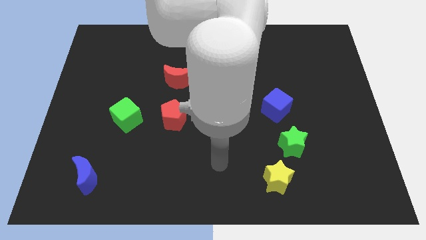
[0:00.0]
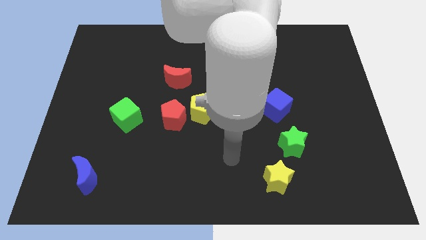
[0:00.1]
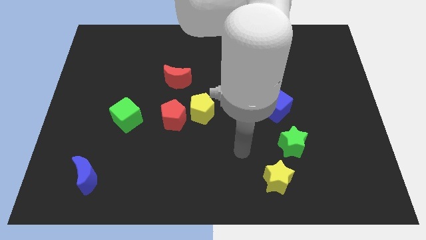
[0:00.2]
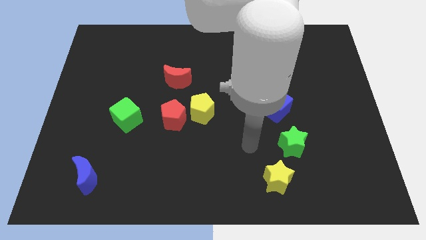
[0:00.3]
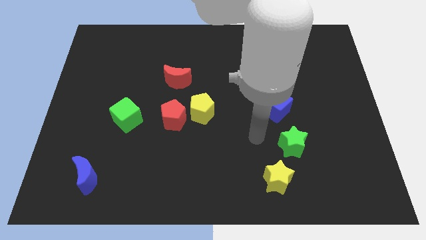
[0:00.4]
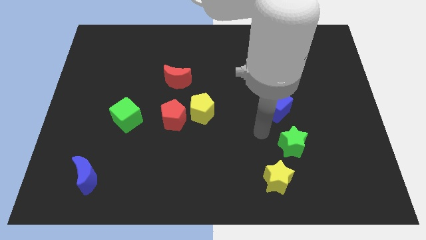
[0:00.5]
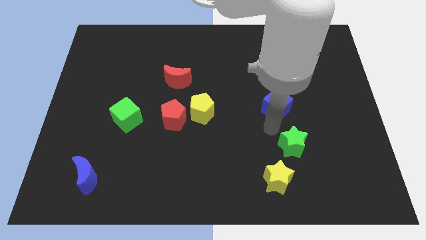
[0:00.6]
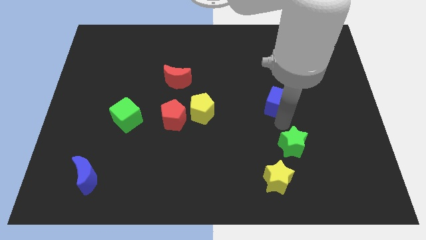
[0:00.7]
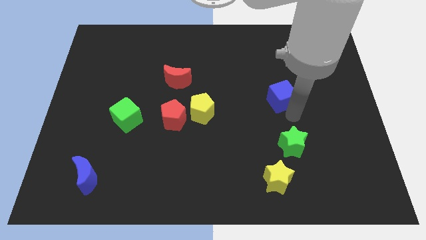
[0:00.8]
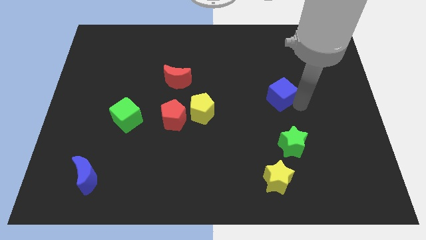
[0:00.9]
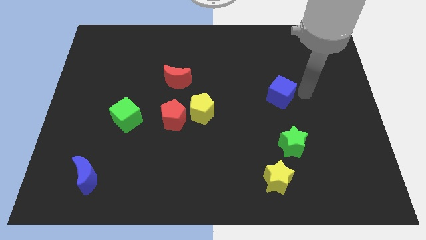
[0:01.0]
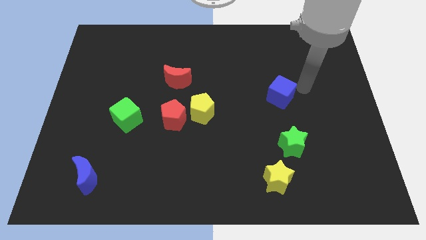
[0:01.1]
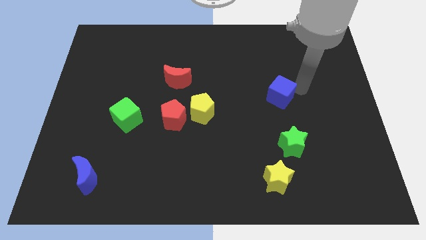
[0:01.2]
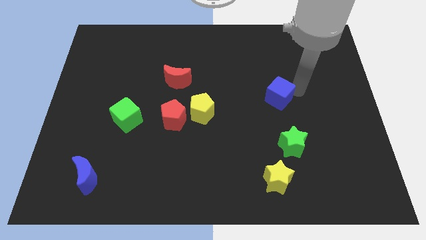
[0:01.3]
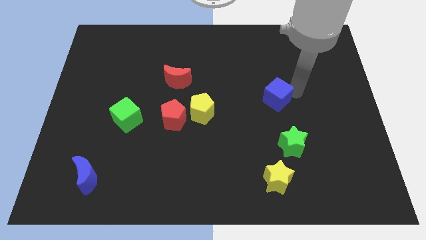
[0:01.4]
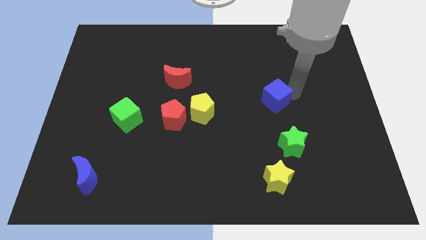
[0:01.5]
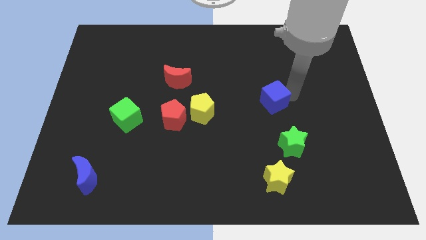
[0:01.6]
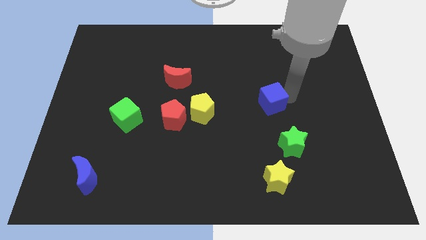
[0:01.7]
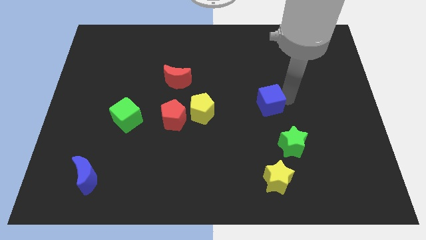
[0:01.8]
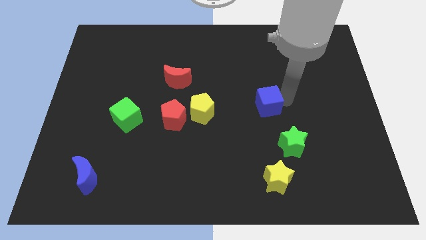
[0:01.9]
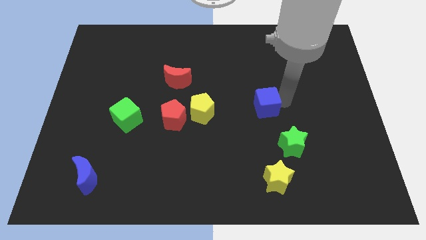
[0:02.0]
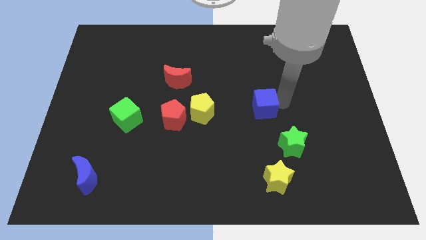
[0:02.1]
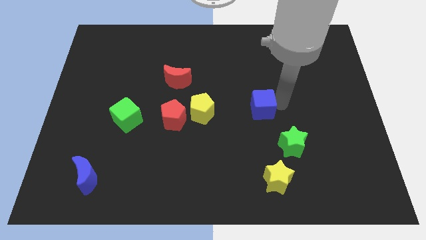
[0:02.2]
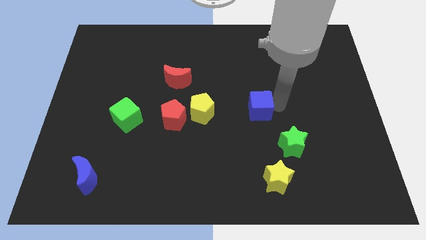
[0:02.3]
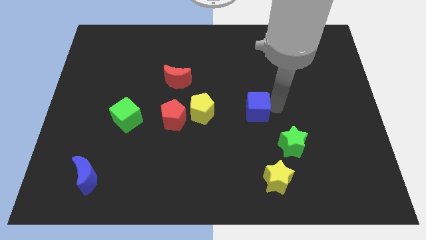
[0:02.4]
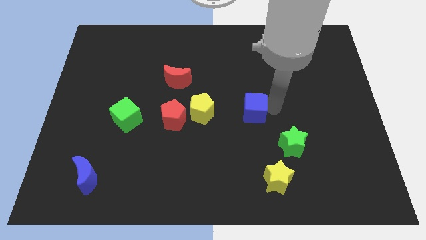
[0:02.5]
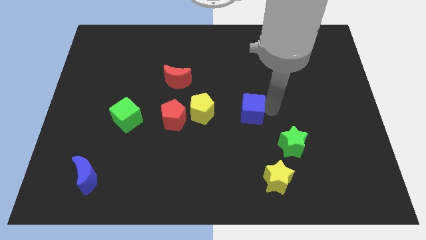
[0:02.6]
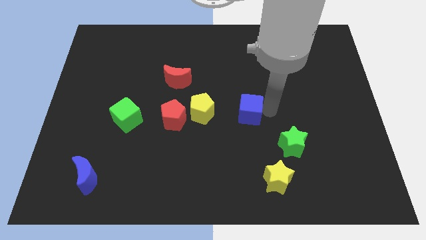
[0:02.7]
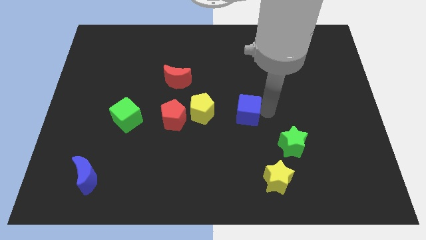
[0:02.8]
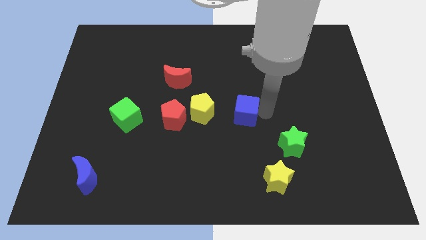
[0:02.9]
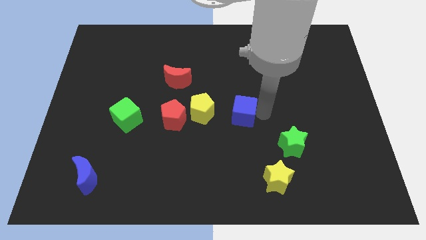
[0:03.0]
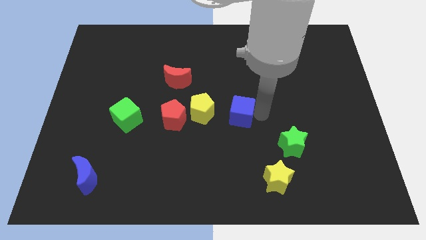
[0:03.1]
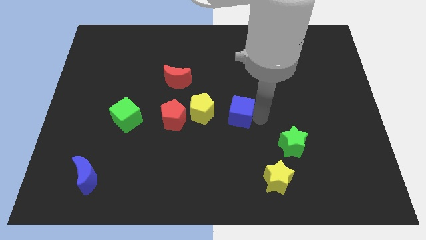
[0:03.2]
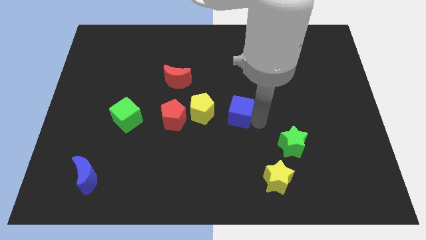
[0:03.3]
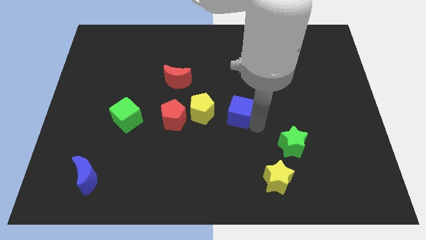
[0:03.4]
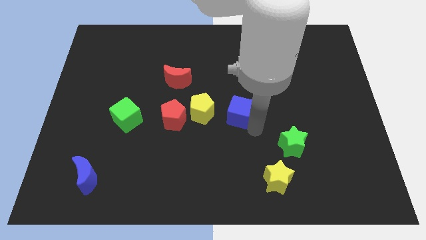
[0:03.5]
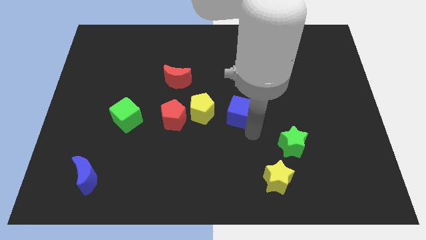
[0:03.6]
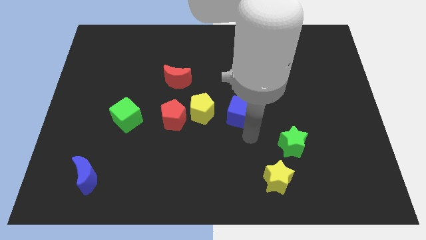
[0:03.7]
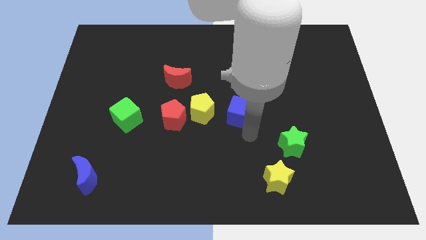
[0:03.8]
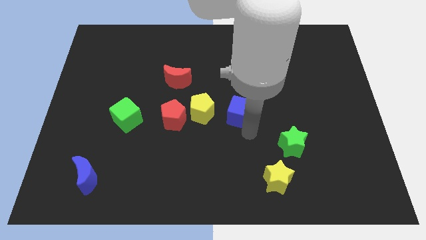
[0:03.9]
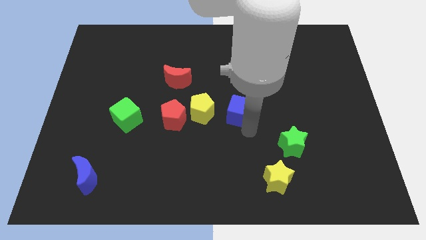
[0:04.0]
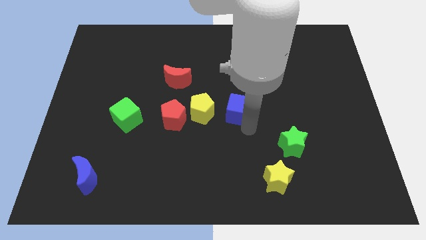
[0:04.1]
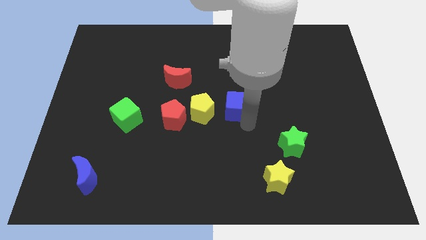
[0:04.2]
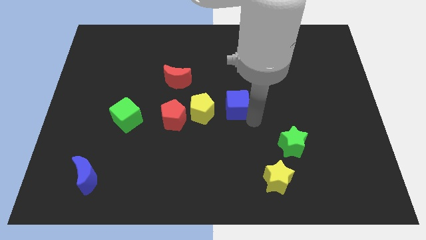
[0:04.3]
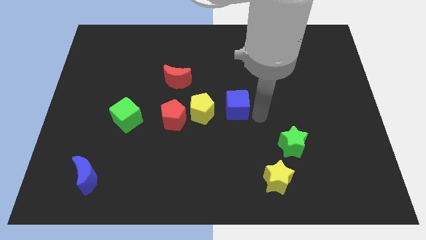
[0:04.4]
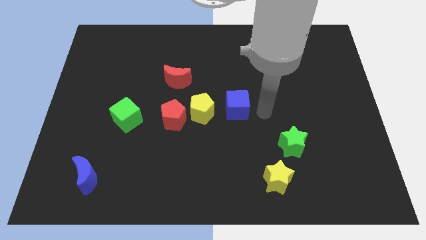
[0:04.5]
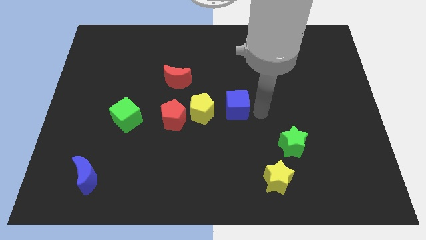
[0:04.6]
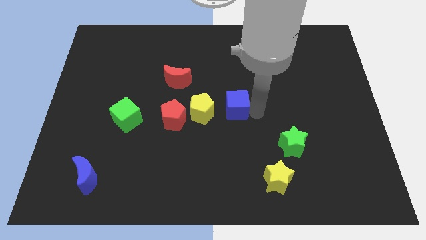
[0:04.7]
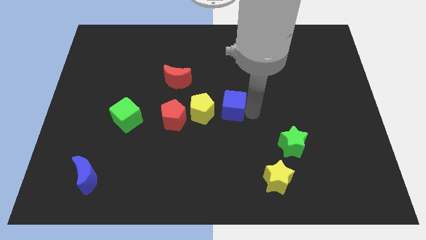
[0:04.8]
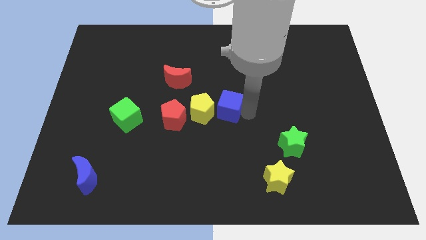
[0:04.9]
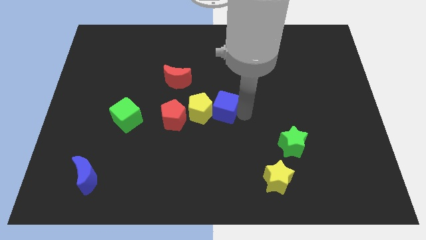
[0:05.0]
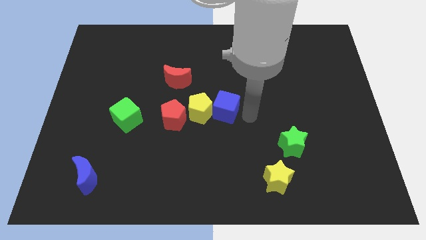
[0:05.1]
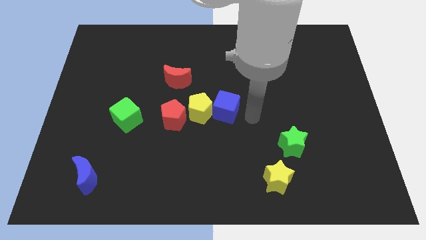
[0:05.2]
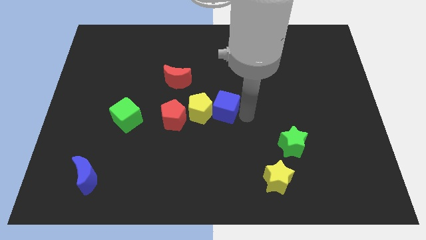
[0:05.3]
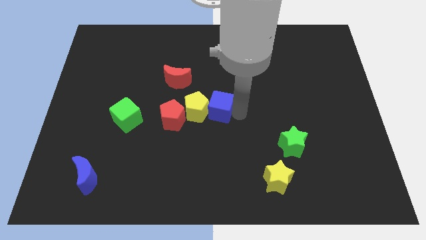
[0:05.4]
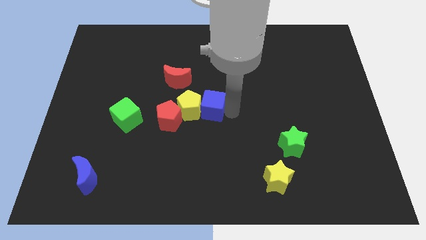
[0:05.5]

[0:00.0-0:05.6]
slide the blue cube to the top right side of the red pentagon

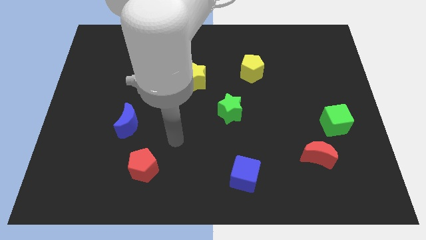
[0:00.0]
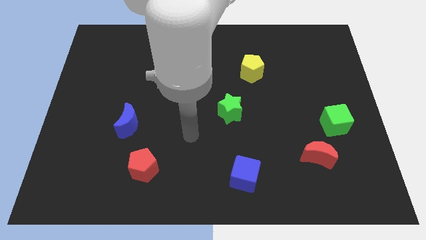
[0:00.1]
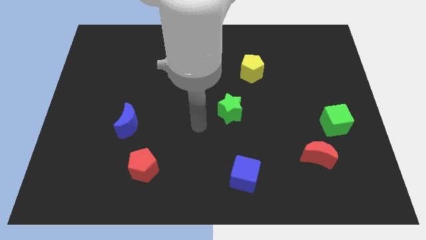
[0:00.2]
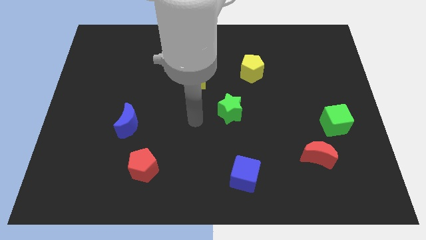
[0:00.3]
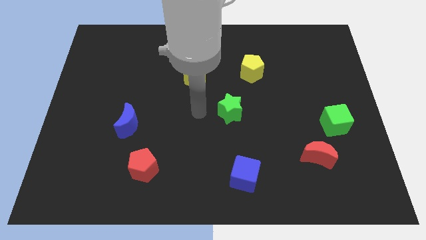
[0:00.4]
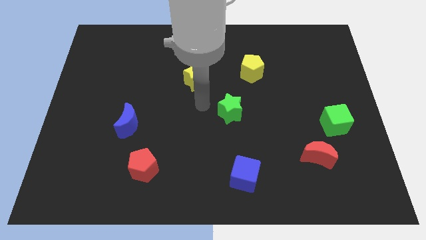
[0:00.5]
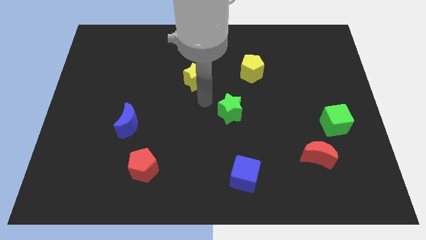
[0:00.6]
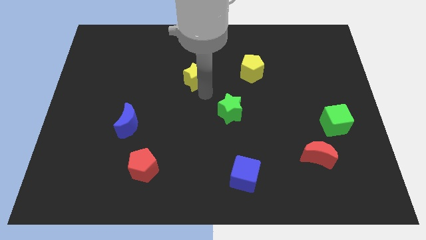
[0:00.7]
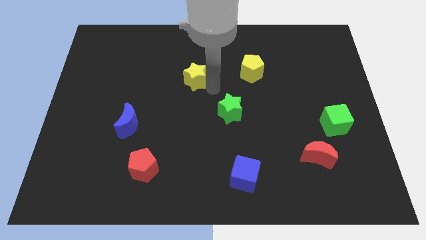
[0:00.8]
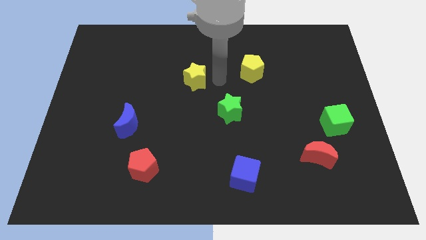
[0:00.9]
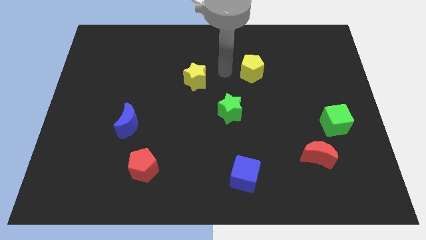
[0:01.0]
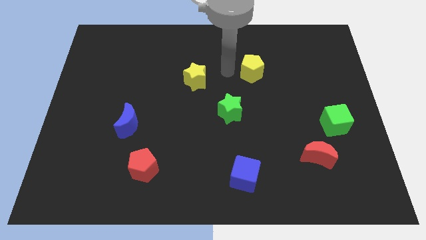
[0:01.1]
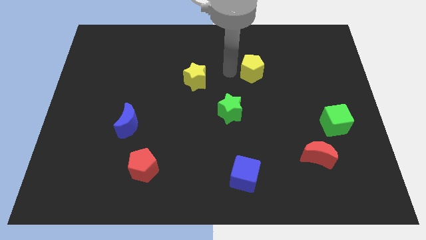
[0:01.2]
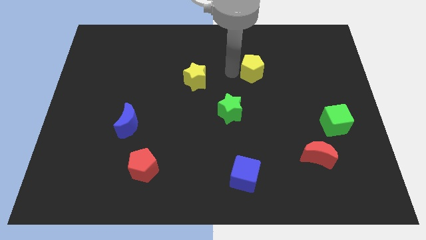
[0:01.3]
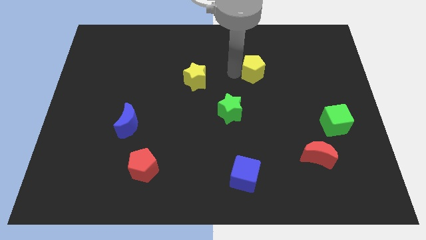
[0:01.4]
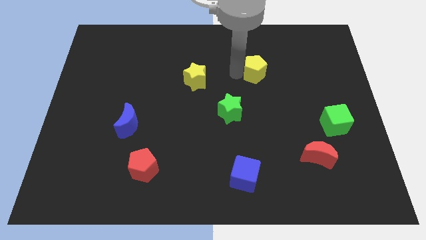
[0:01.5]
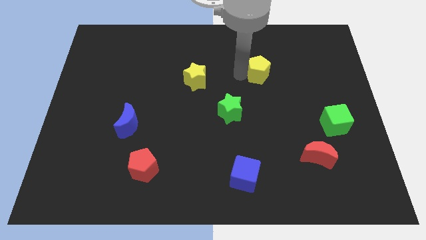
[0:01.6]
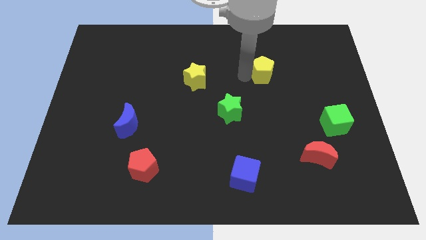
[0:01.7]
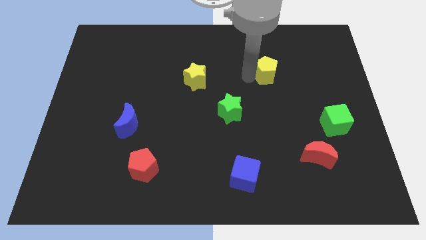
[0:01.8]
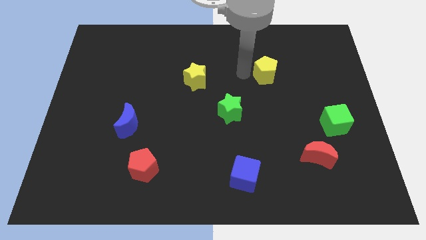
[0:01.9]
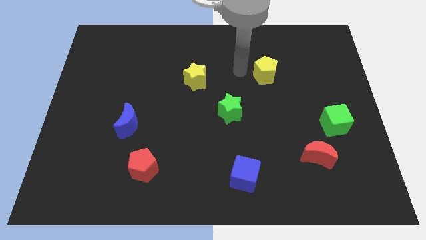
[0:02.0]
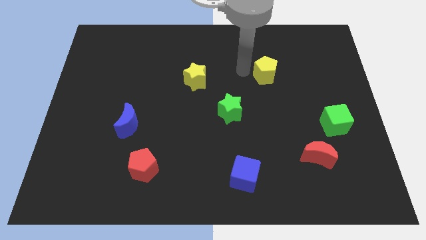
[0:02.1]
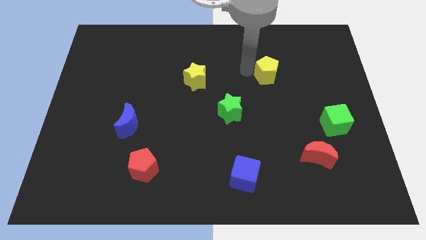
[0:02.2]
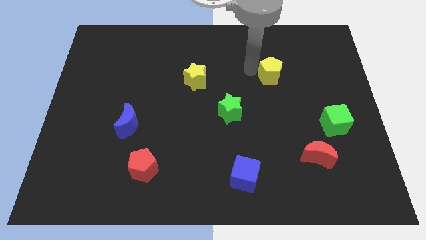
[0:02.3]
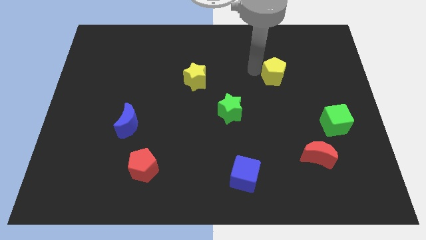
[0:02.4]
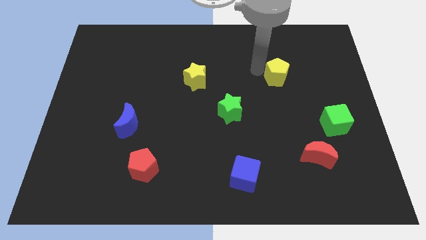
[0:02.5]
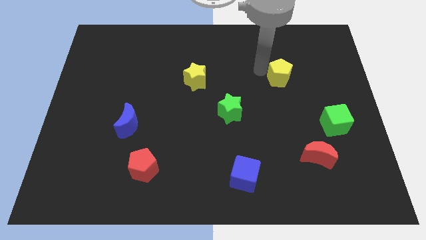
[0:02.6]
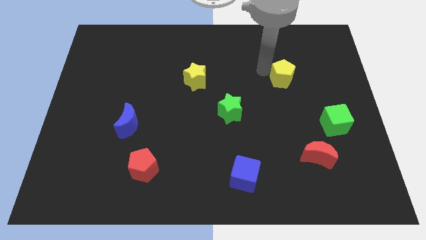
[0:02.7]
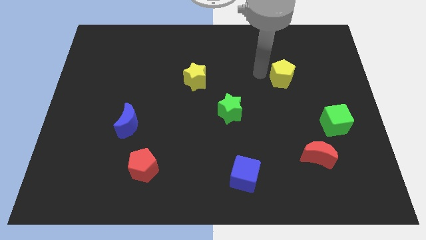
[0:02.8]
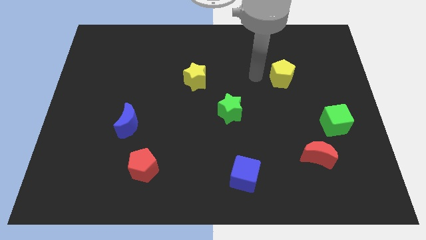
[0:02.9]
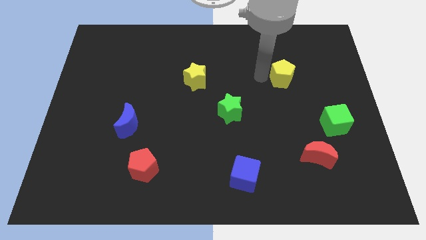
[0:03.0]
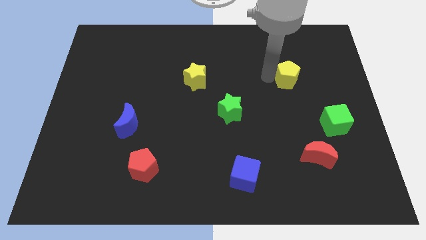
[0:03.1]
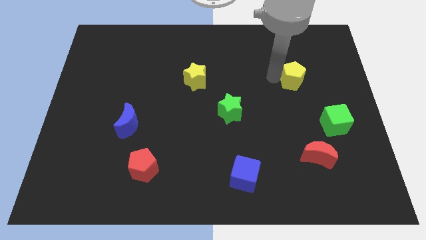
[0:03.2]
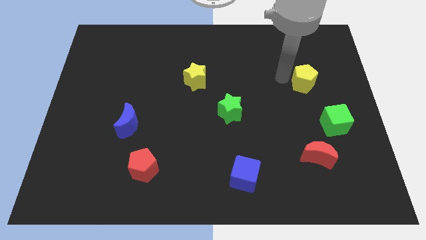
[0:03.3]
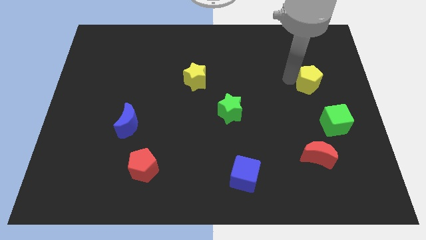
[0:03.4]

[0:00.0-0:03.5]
put the yellow pentagon above the green cube
